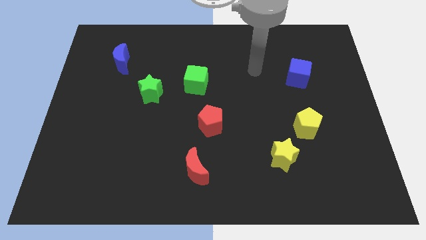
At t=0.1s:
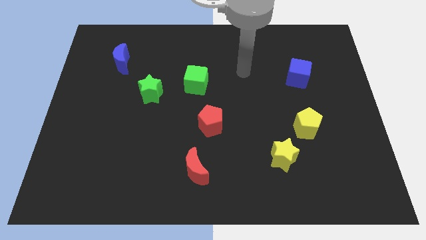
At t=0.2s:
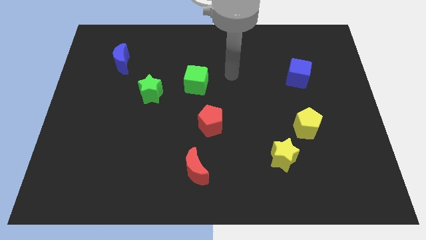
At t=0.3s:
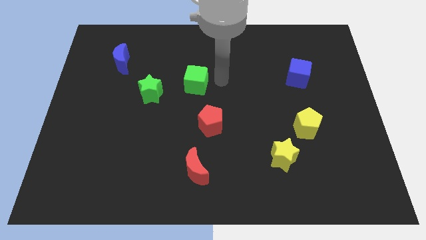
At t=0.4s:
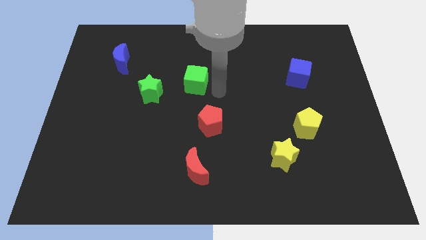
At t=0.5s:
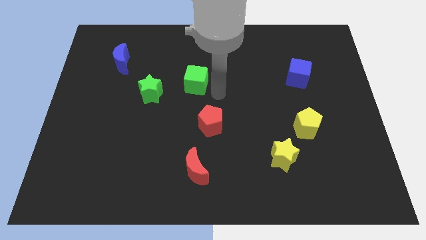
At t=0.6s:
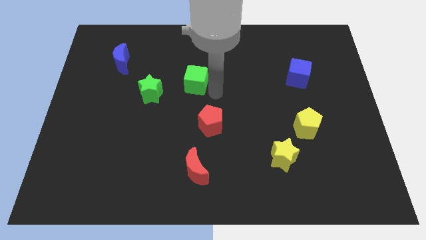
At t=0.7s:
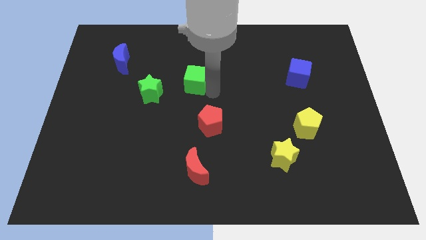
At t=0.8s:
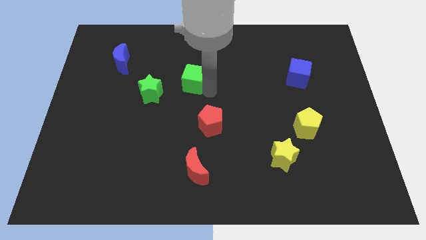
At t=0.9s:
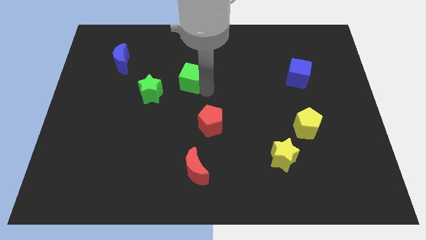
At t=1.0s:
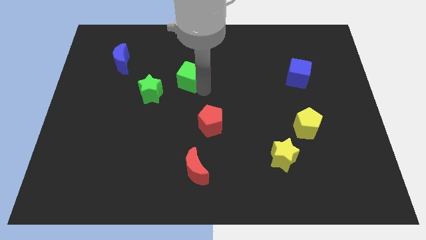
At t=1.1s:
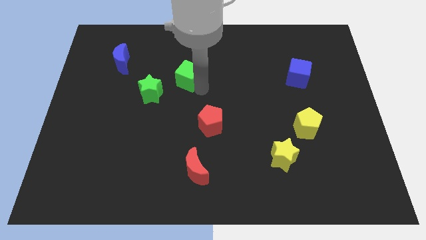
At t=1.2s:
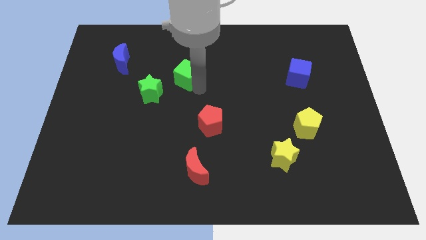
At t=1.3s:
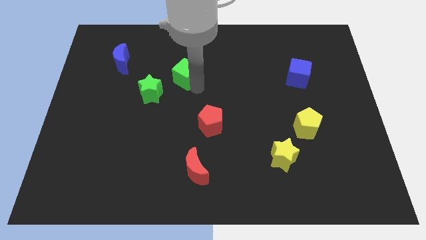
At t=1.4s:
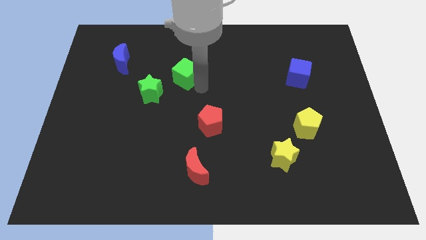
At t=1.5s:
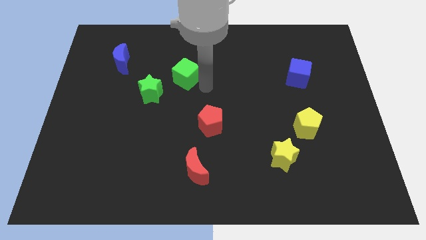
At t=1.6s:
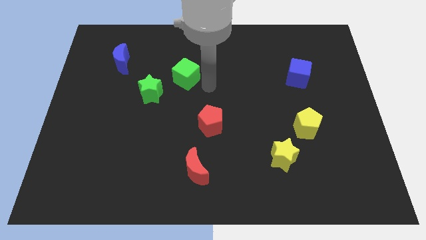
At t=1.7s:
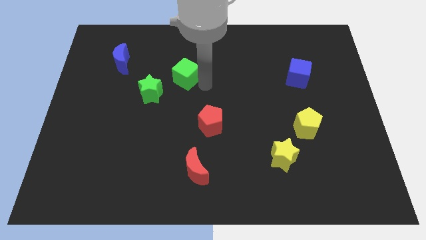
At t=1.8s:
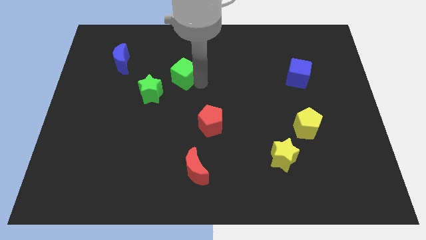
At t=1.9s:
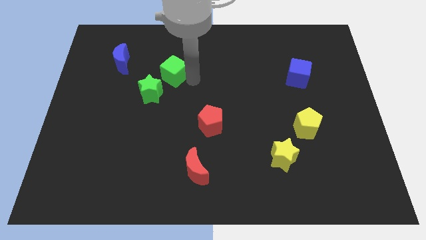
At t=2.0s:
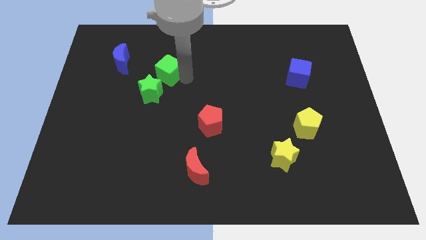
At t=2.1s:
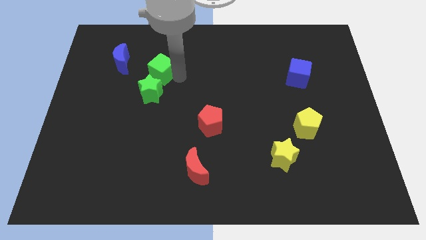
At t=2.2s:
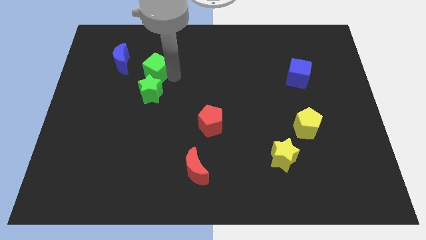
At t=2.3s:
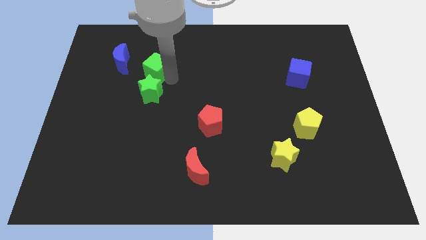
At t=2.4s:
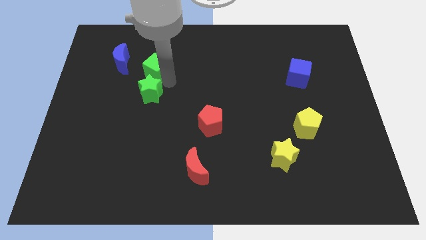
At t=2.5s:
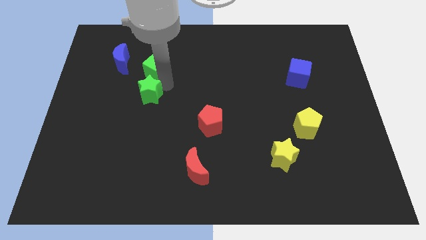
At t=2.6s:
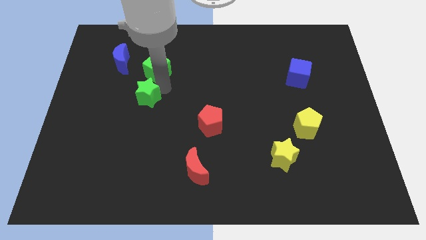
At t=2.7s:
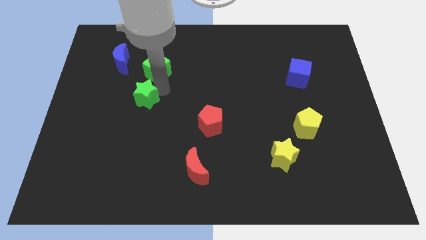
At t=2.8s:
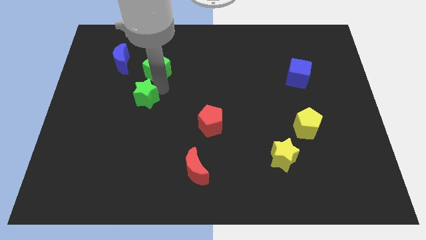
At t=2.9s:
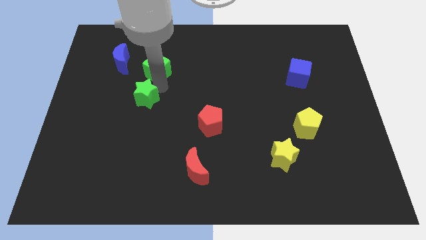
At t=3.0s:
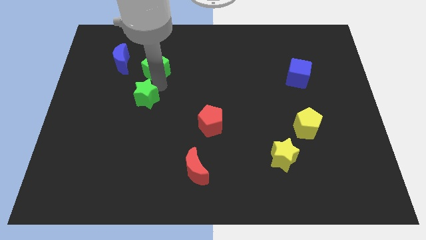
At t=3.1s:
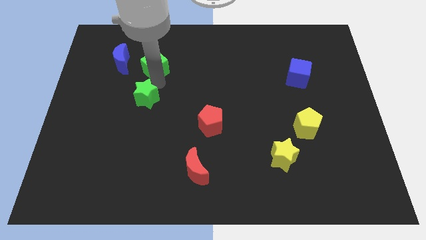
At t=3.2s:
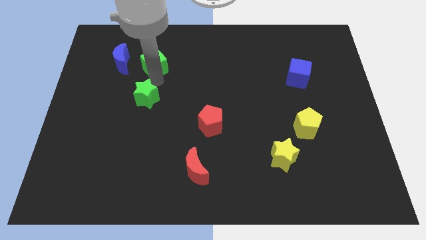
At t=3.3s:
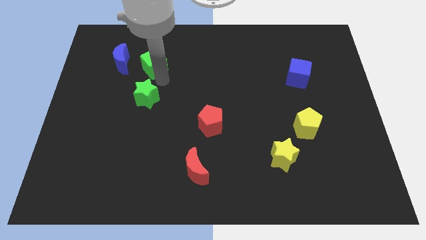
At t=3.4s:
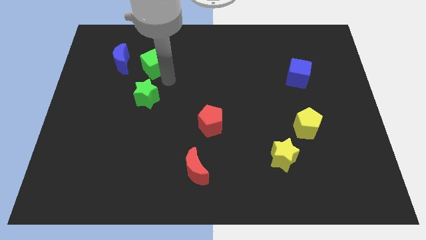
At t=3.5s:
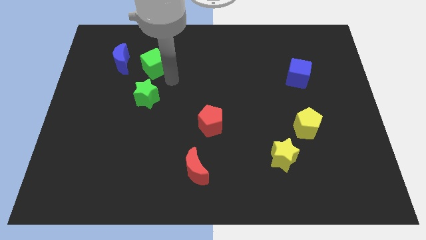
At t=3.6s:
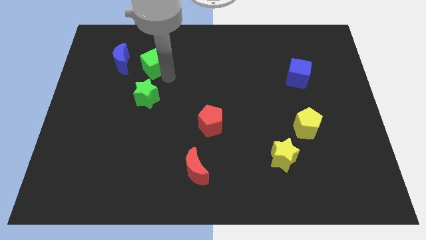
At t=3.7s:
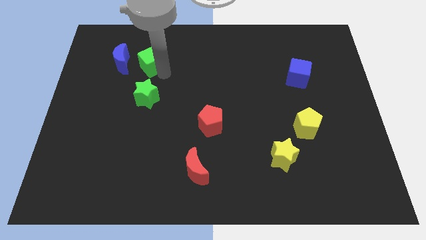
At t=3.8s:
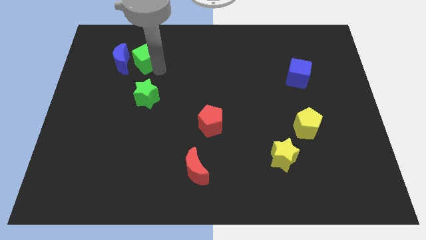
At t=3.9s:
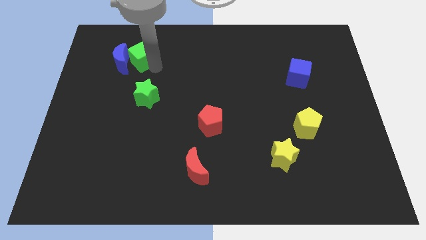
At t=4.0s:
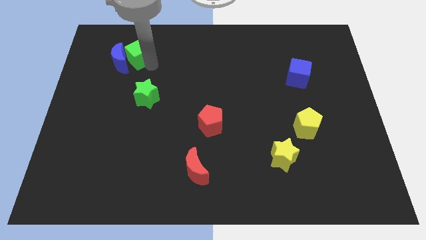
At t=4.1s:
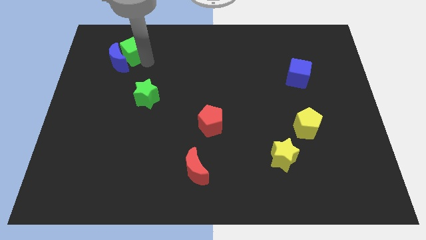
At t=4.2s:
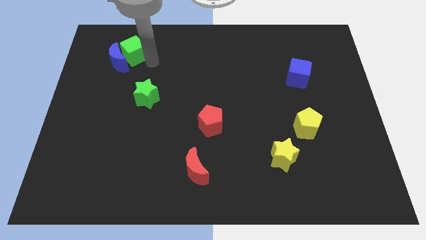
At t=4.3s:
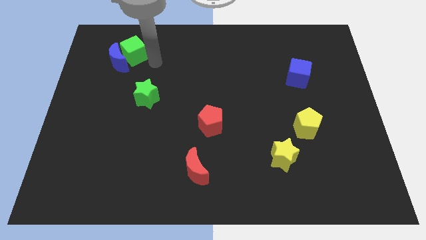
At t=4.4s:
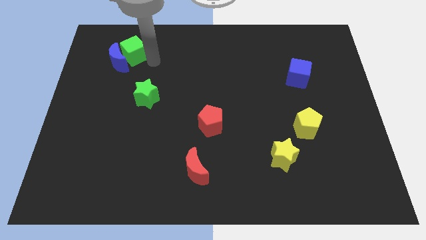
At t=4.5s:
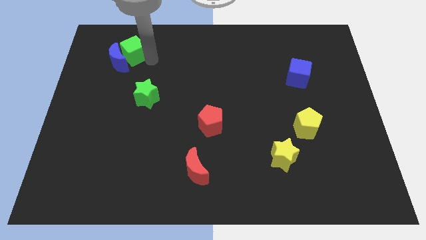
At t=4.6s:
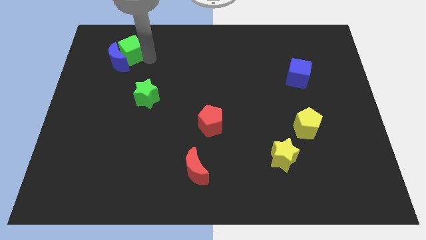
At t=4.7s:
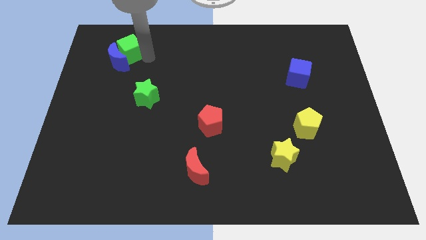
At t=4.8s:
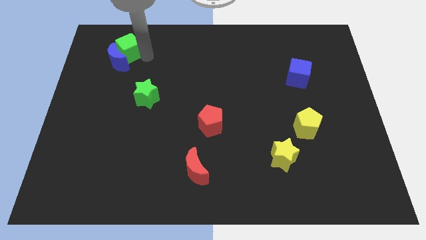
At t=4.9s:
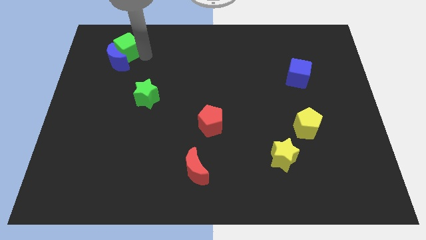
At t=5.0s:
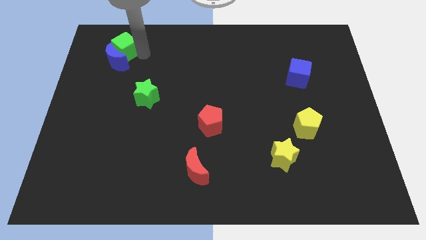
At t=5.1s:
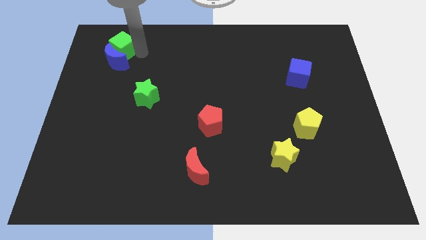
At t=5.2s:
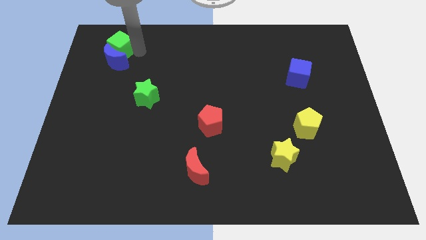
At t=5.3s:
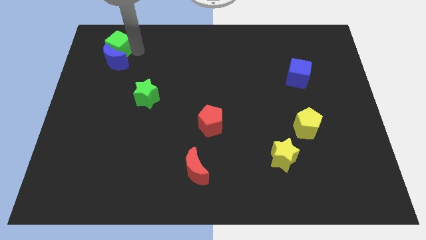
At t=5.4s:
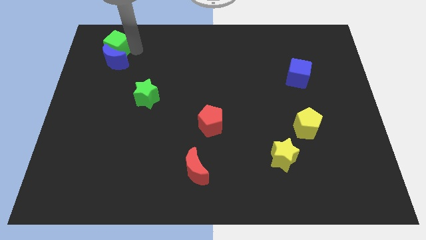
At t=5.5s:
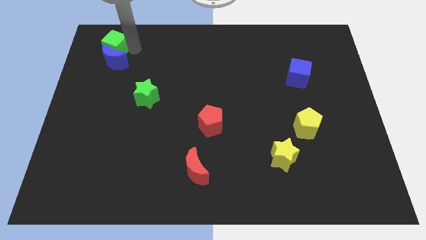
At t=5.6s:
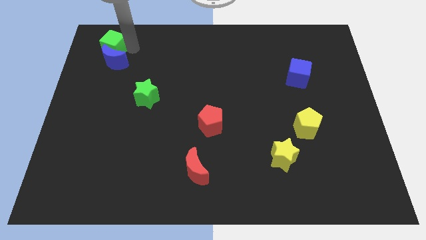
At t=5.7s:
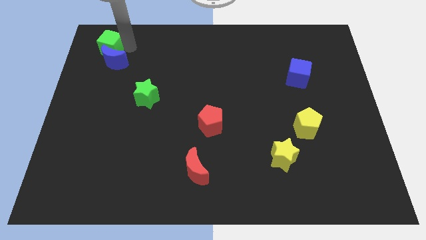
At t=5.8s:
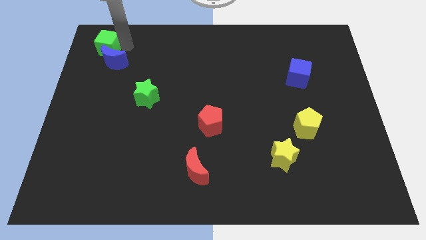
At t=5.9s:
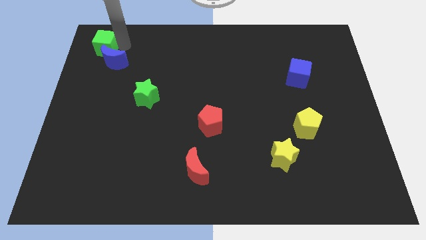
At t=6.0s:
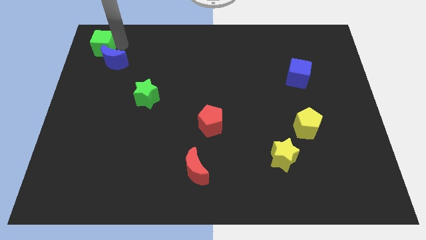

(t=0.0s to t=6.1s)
push the green cube to the top left of the board
